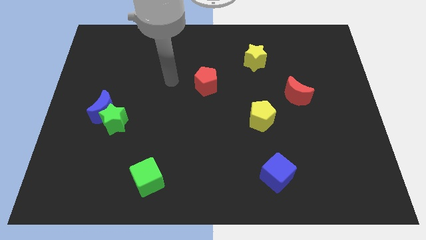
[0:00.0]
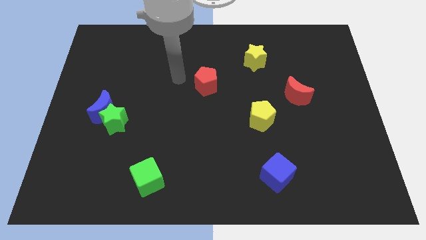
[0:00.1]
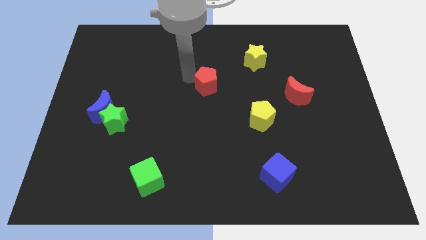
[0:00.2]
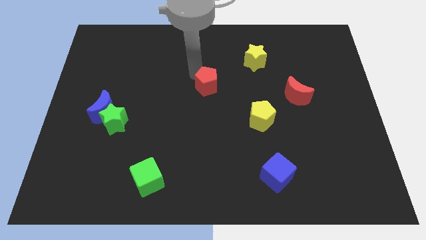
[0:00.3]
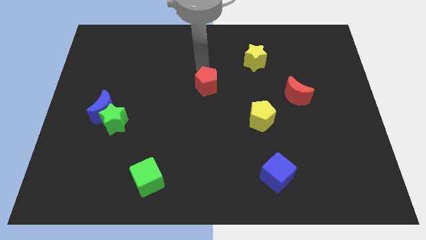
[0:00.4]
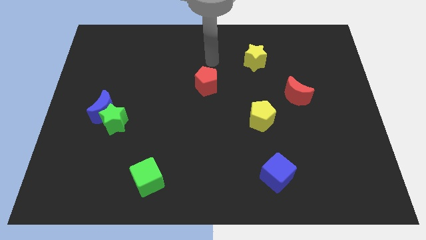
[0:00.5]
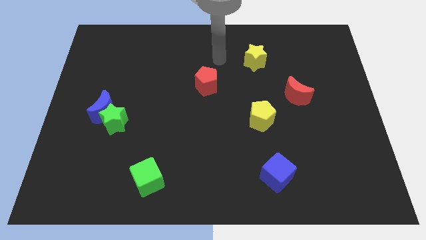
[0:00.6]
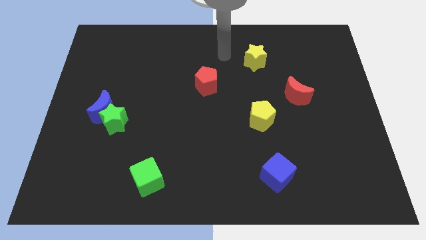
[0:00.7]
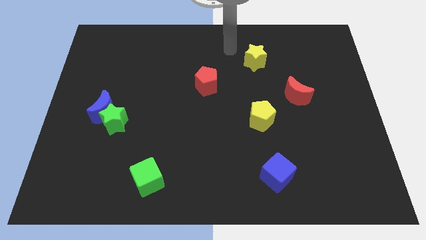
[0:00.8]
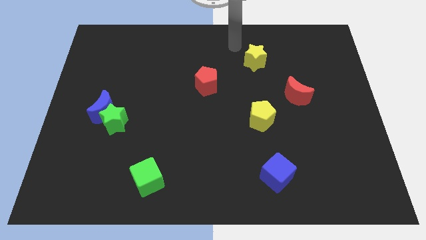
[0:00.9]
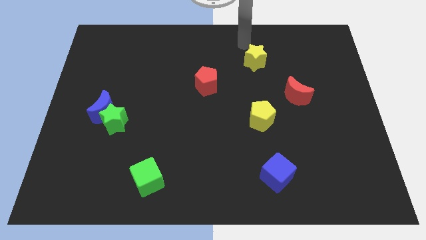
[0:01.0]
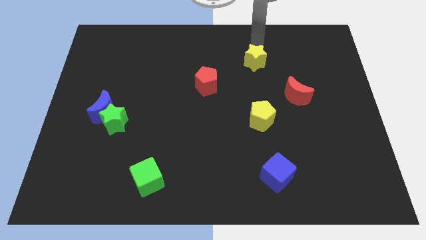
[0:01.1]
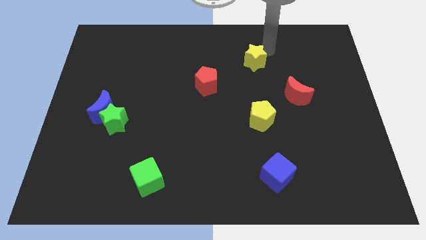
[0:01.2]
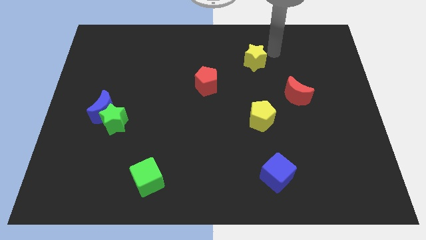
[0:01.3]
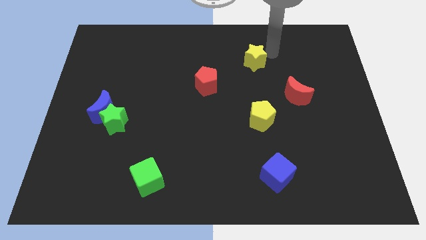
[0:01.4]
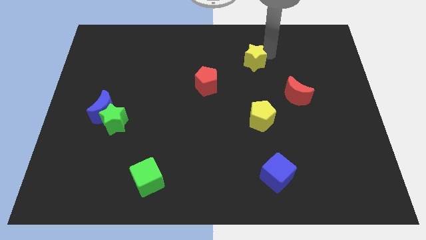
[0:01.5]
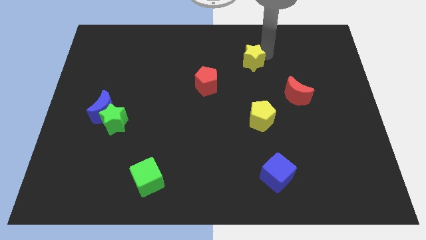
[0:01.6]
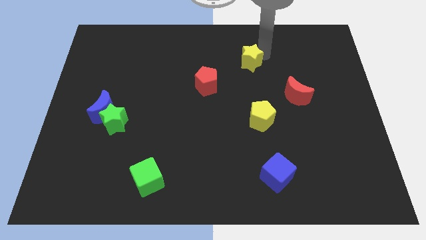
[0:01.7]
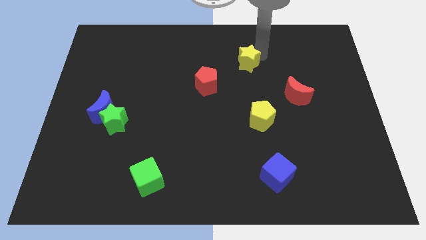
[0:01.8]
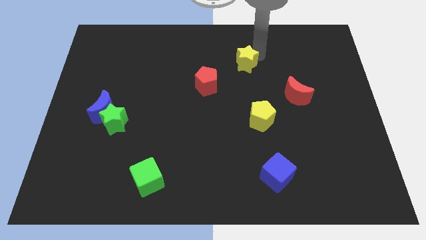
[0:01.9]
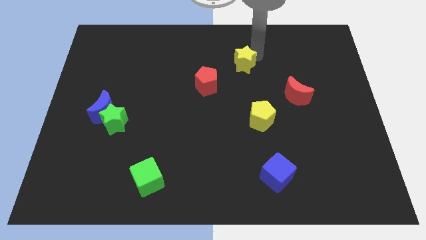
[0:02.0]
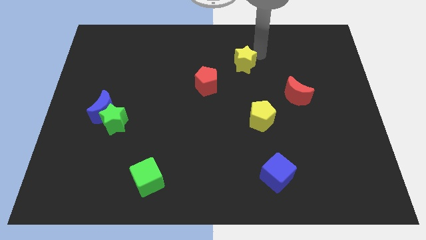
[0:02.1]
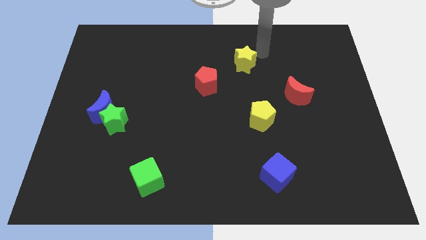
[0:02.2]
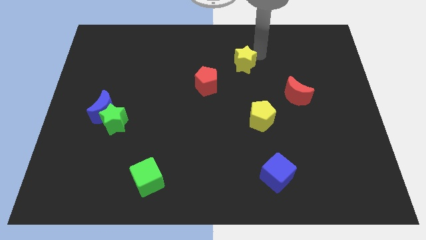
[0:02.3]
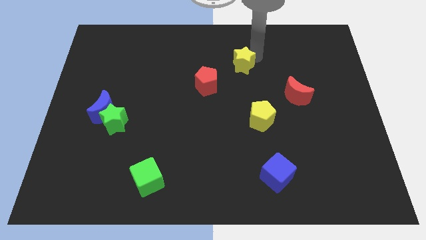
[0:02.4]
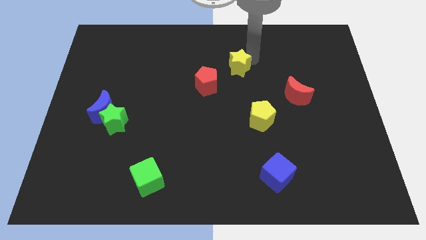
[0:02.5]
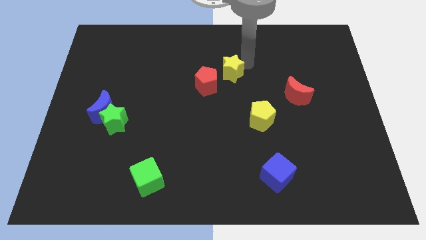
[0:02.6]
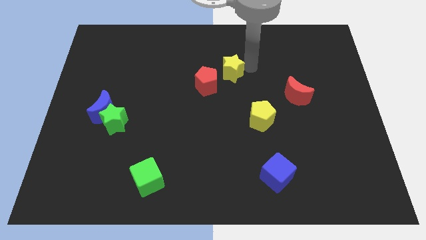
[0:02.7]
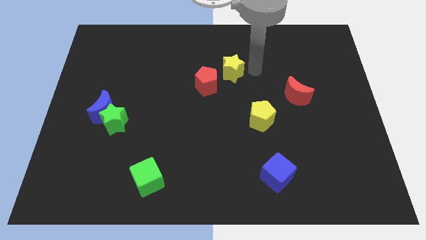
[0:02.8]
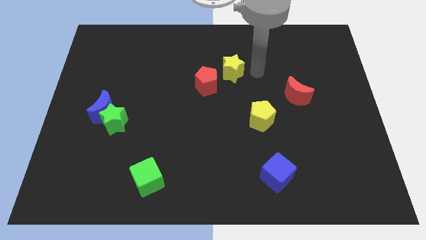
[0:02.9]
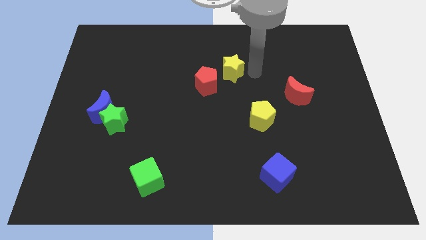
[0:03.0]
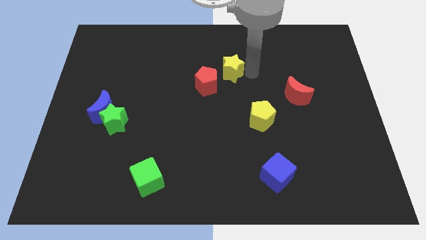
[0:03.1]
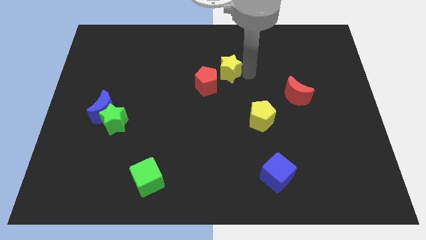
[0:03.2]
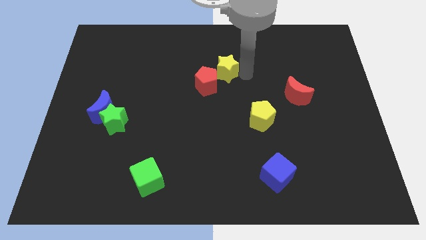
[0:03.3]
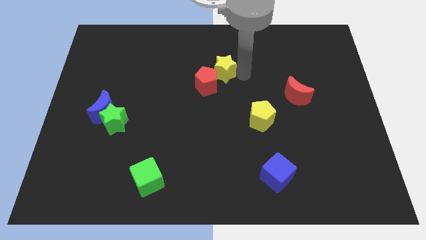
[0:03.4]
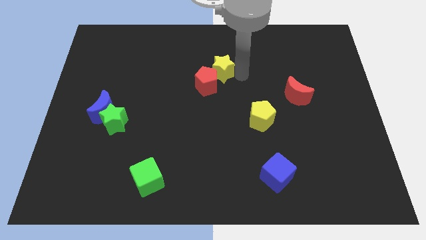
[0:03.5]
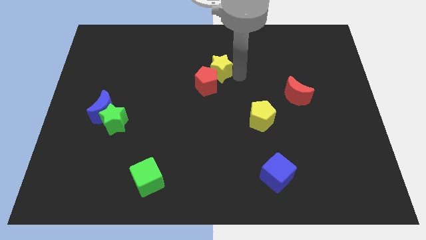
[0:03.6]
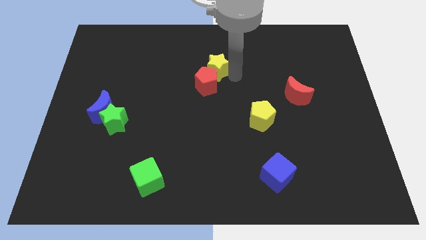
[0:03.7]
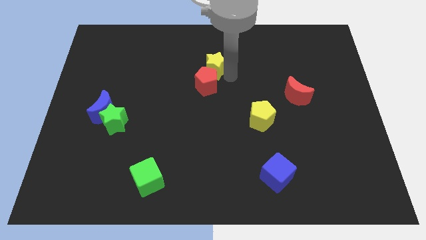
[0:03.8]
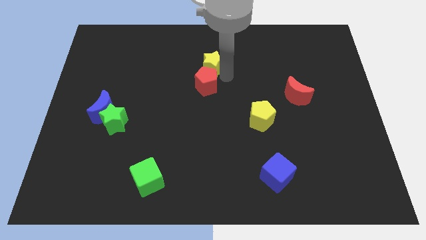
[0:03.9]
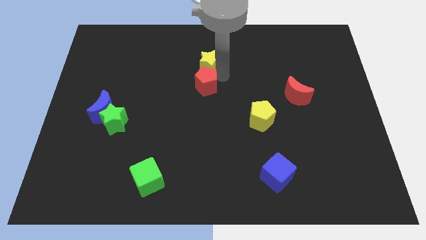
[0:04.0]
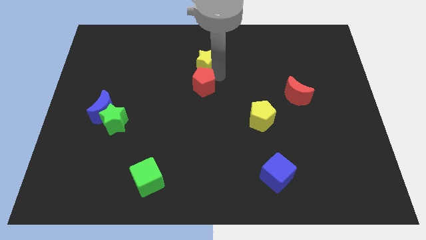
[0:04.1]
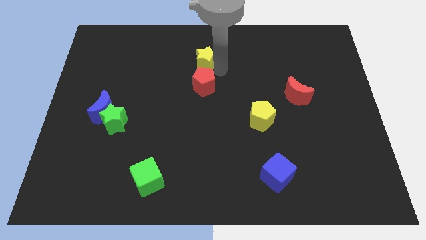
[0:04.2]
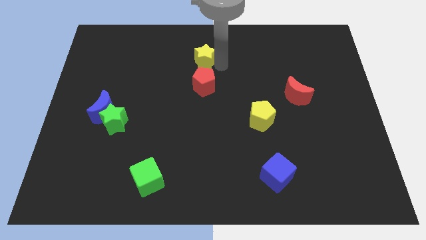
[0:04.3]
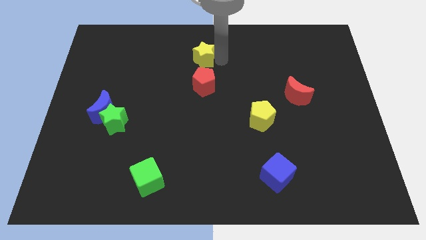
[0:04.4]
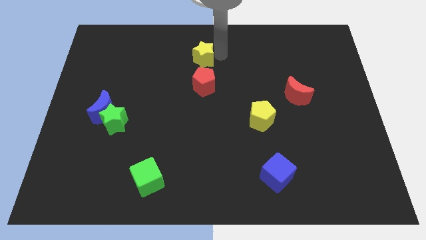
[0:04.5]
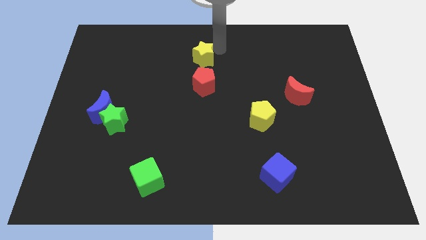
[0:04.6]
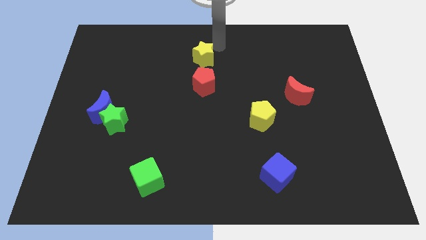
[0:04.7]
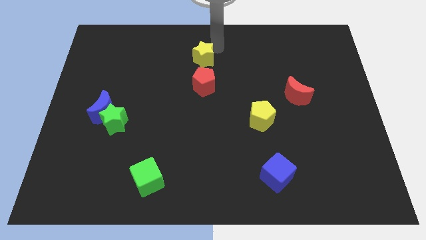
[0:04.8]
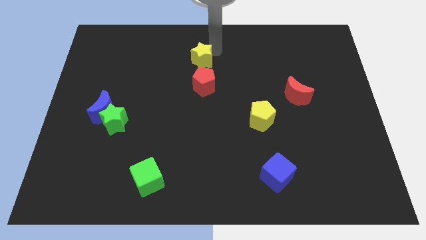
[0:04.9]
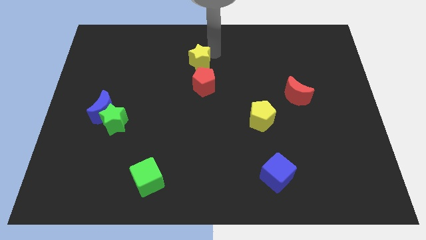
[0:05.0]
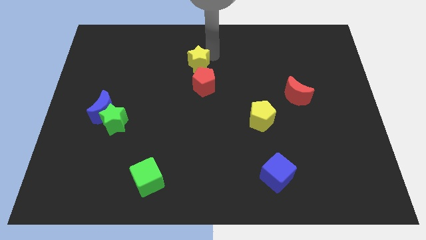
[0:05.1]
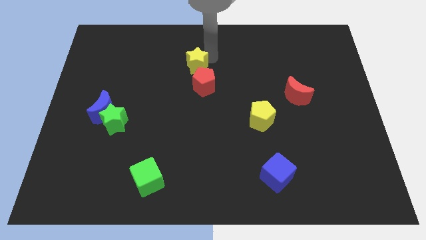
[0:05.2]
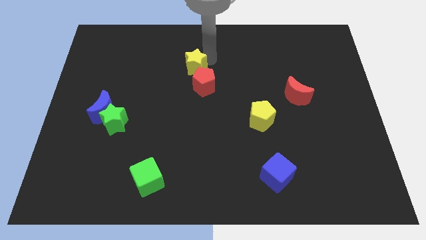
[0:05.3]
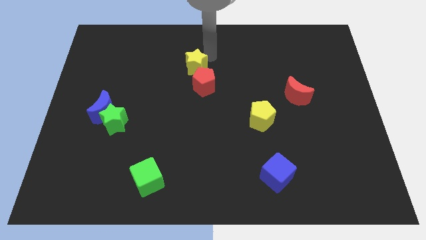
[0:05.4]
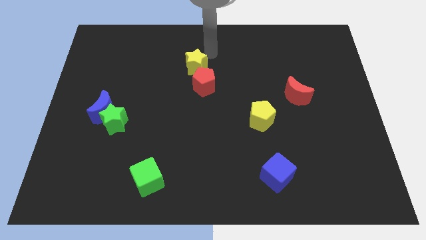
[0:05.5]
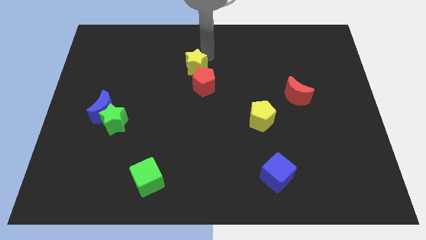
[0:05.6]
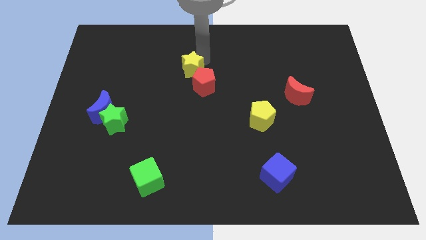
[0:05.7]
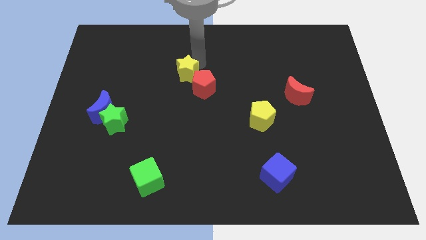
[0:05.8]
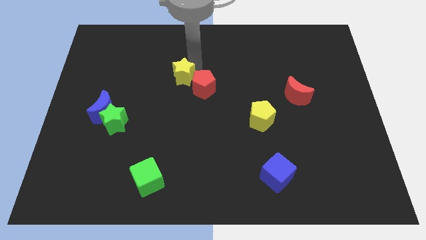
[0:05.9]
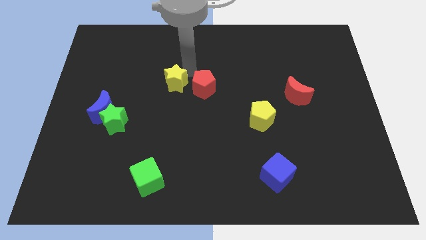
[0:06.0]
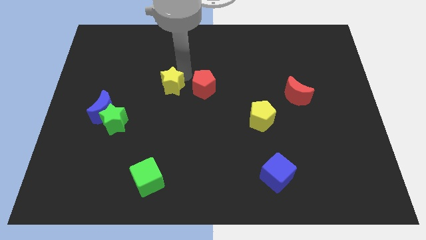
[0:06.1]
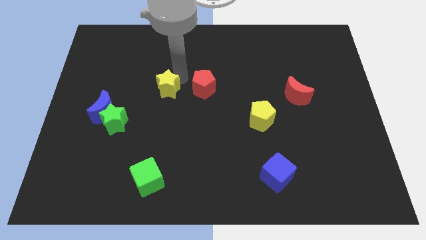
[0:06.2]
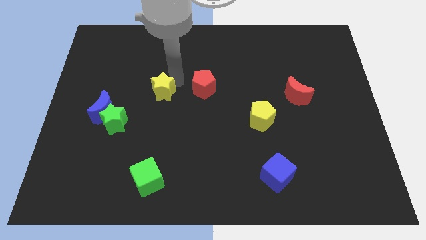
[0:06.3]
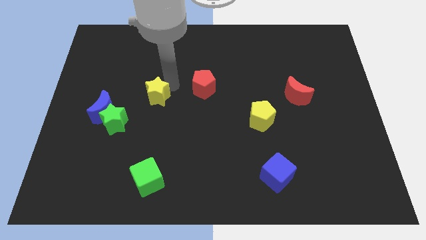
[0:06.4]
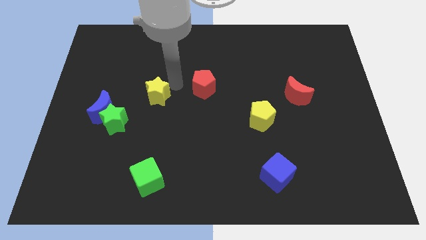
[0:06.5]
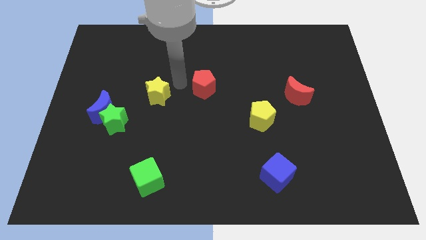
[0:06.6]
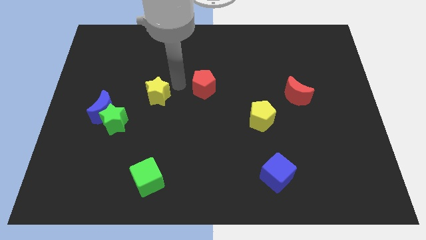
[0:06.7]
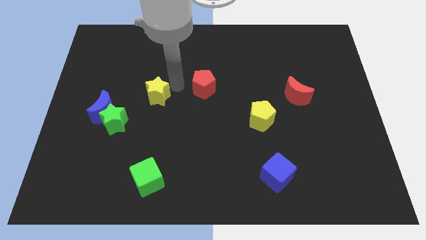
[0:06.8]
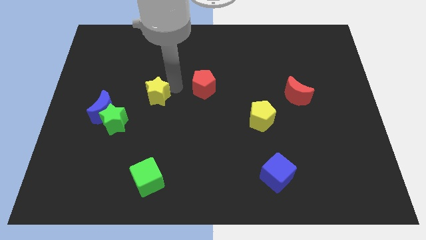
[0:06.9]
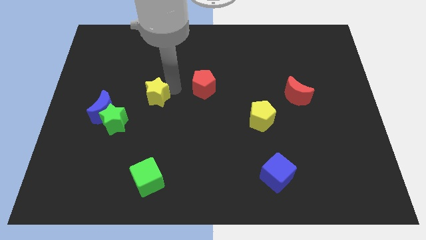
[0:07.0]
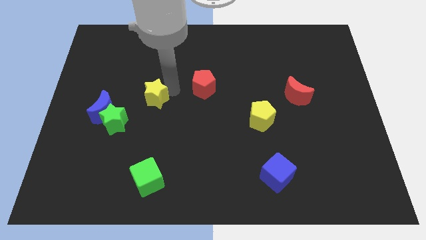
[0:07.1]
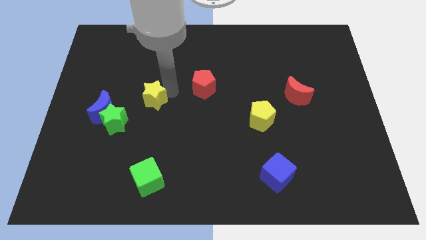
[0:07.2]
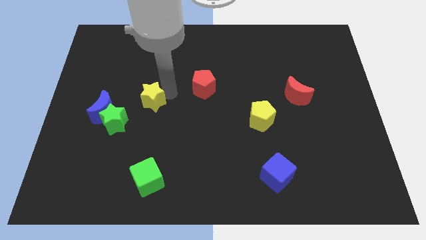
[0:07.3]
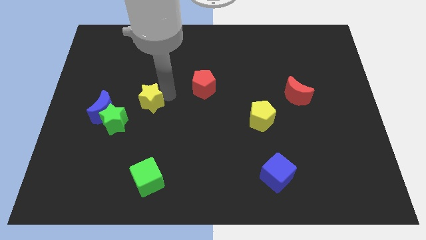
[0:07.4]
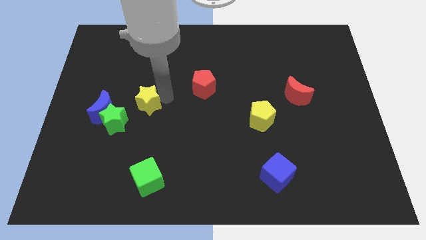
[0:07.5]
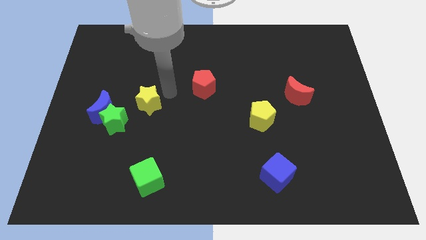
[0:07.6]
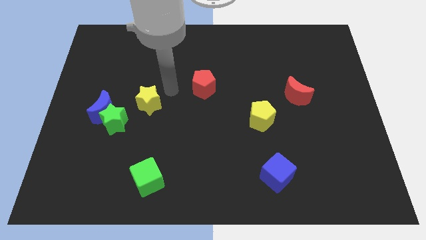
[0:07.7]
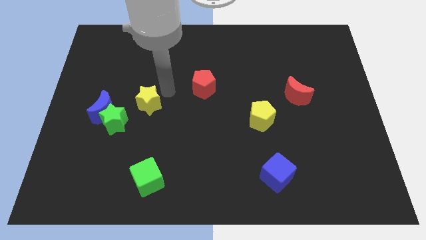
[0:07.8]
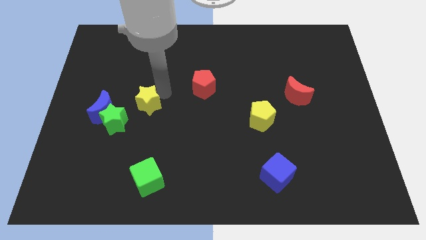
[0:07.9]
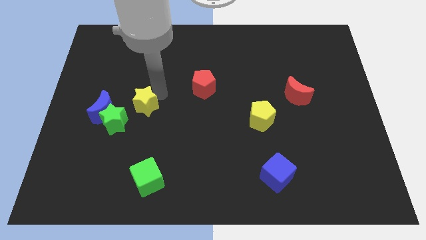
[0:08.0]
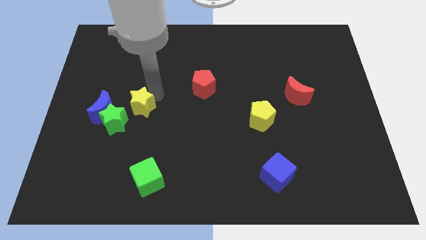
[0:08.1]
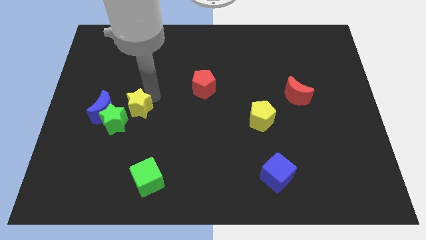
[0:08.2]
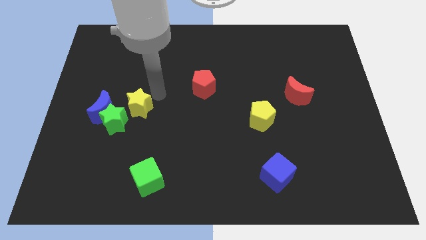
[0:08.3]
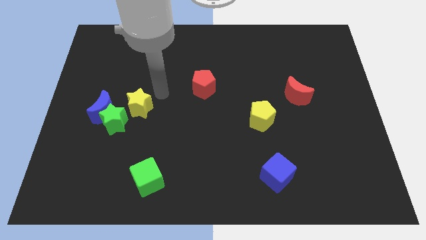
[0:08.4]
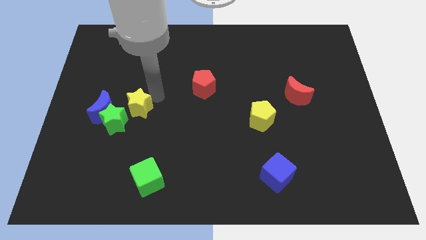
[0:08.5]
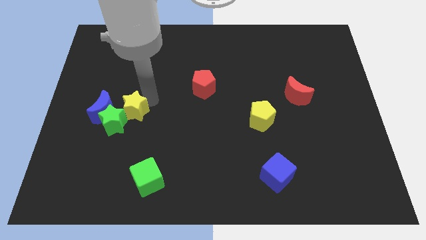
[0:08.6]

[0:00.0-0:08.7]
slide the yellow star towards the green star
